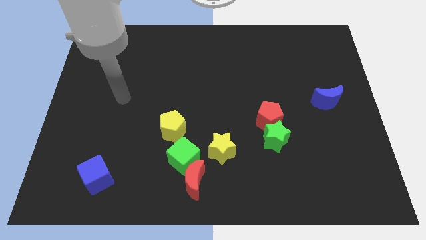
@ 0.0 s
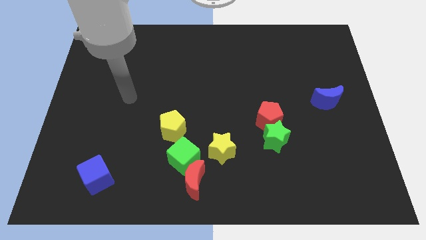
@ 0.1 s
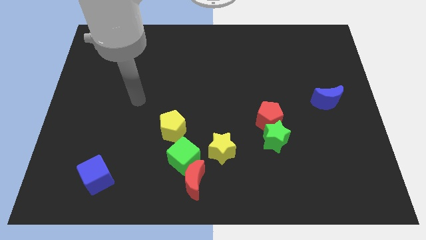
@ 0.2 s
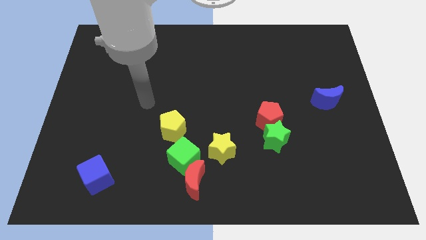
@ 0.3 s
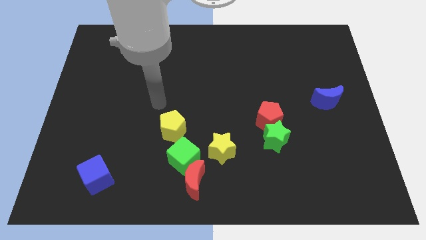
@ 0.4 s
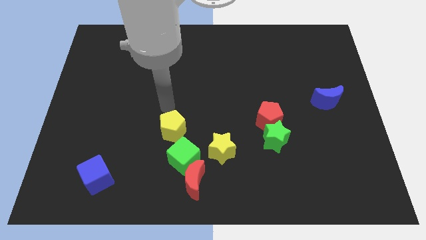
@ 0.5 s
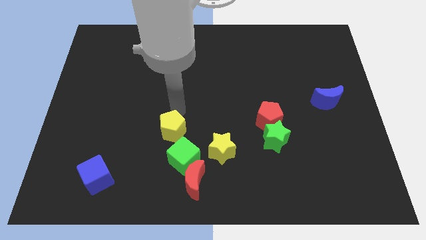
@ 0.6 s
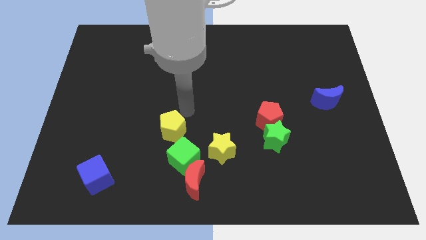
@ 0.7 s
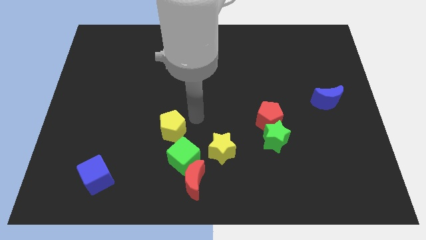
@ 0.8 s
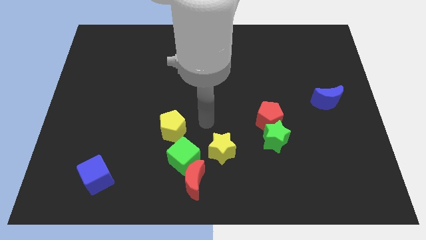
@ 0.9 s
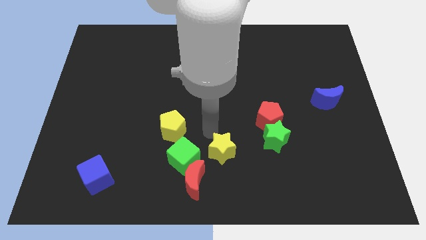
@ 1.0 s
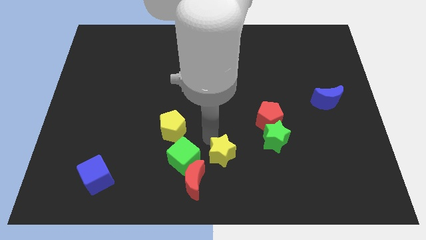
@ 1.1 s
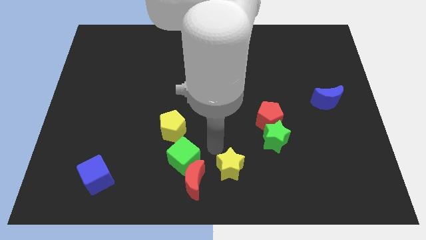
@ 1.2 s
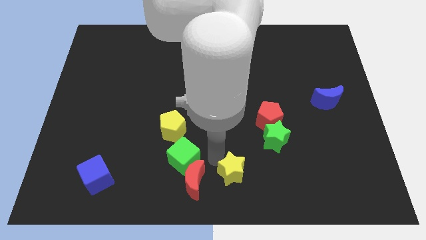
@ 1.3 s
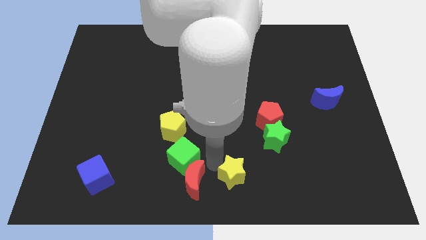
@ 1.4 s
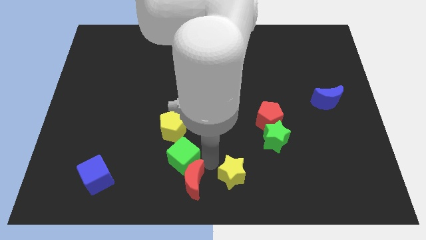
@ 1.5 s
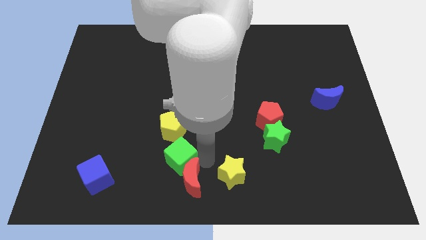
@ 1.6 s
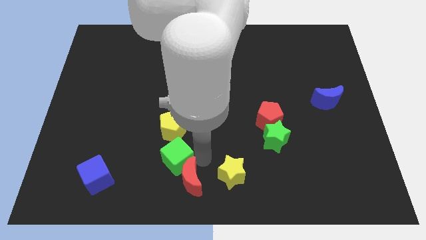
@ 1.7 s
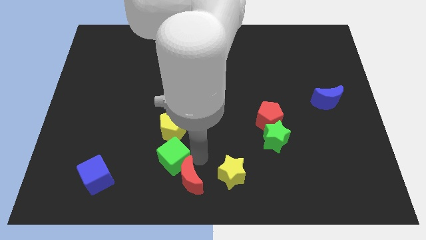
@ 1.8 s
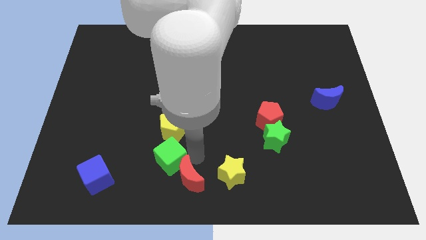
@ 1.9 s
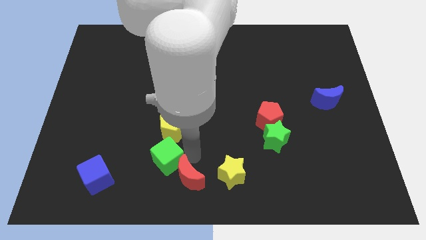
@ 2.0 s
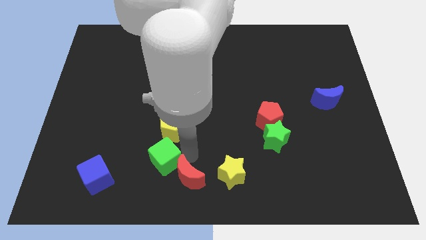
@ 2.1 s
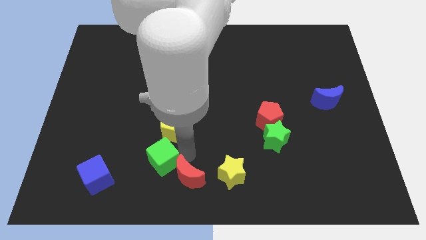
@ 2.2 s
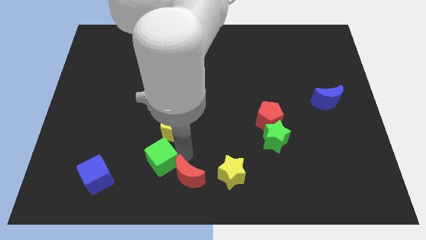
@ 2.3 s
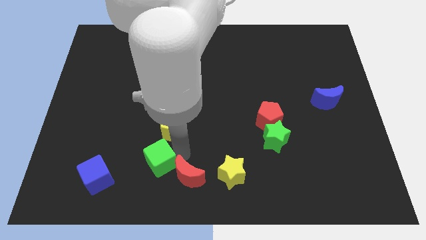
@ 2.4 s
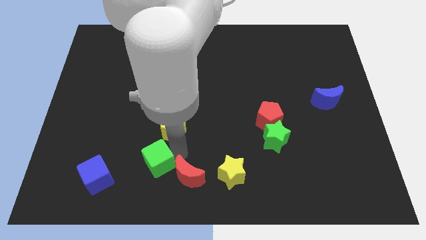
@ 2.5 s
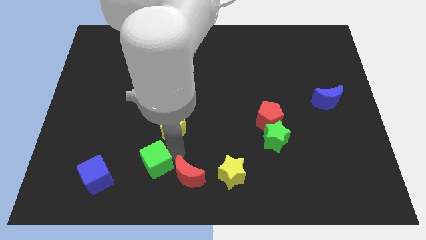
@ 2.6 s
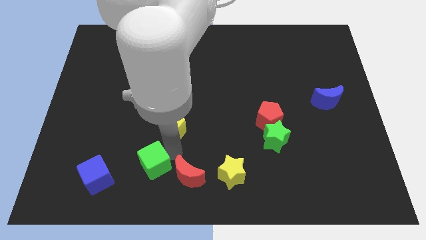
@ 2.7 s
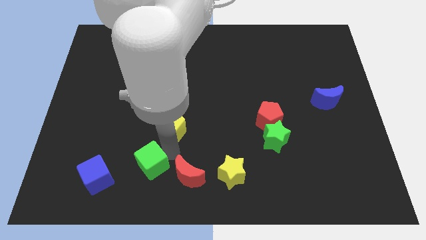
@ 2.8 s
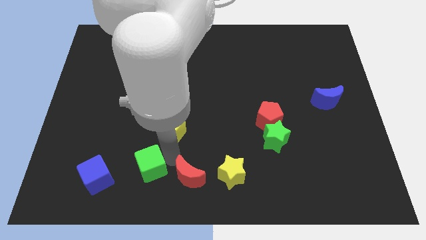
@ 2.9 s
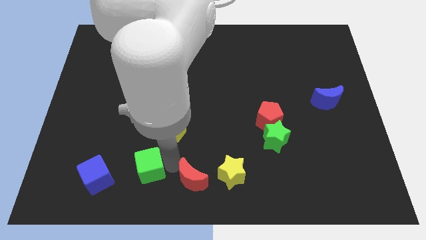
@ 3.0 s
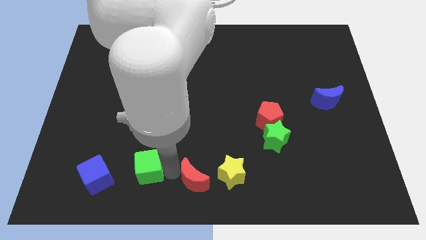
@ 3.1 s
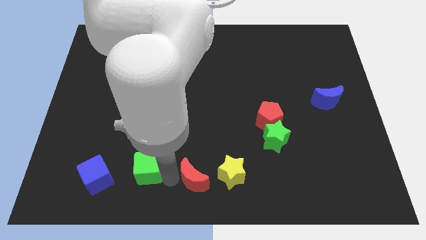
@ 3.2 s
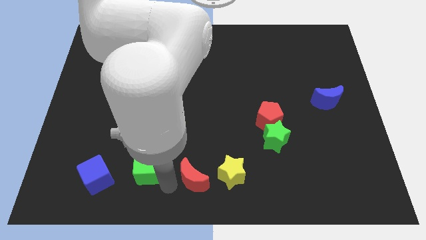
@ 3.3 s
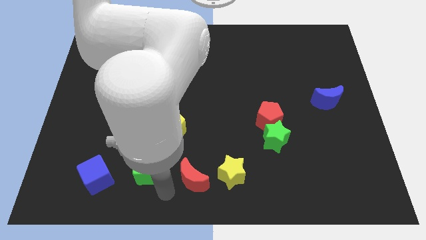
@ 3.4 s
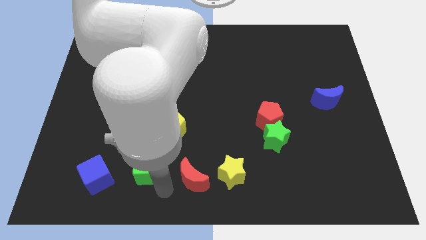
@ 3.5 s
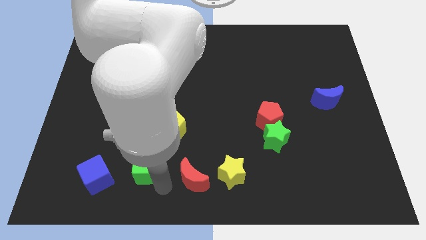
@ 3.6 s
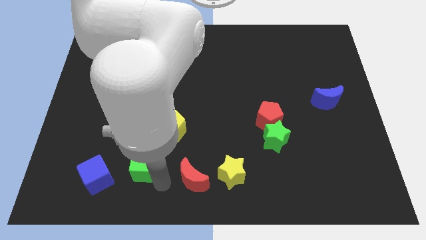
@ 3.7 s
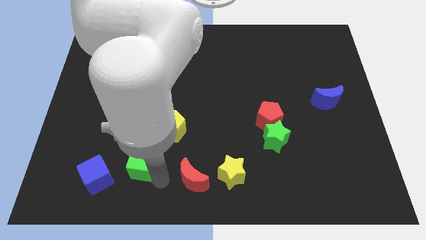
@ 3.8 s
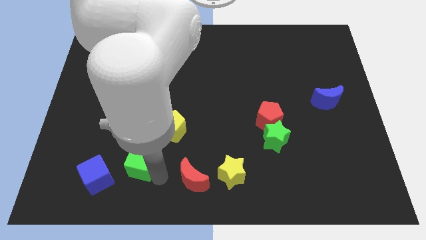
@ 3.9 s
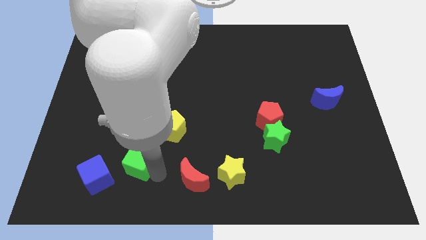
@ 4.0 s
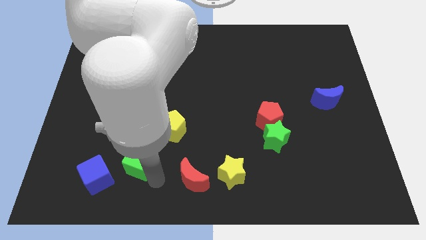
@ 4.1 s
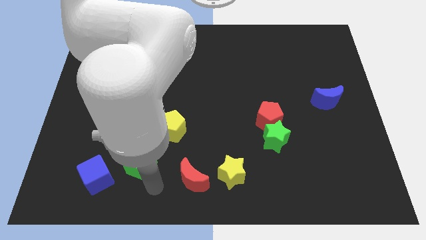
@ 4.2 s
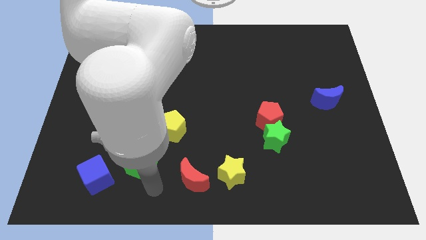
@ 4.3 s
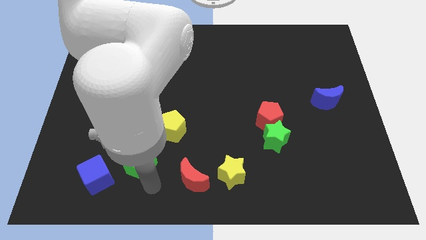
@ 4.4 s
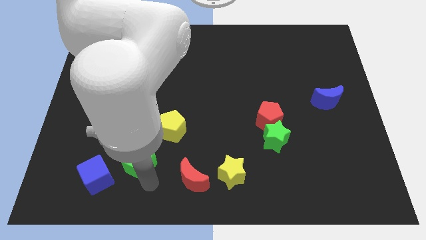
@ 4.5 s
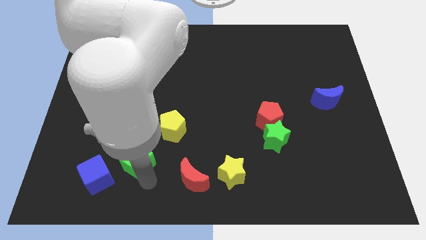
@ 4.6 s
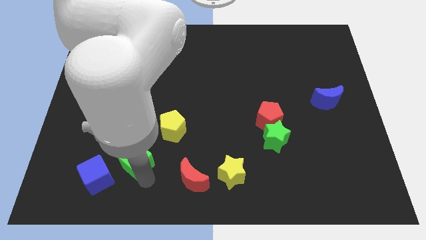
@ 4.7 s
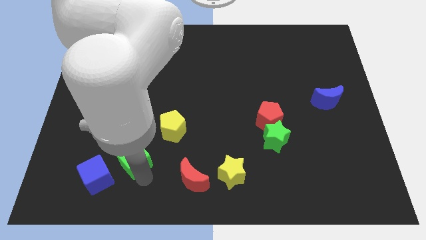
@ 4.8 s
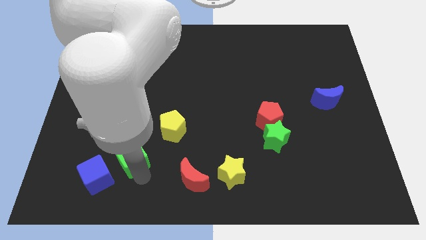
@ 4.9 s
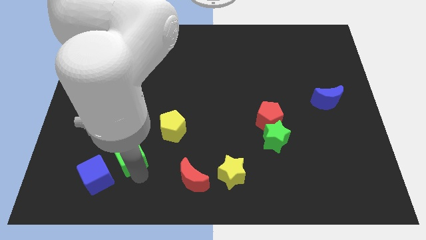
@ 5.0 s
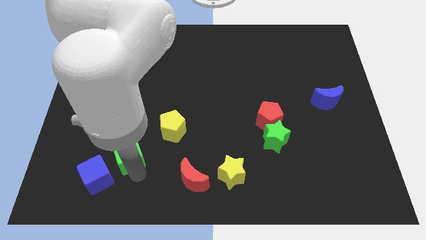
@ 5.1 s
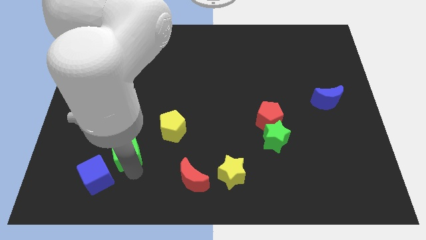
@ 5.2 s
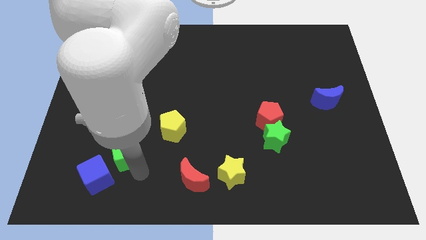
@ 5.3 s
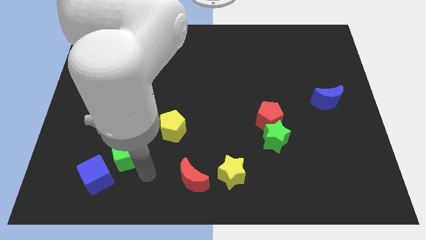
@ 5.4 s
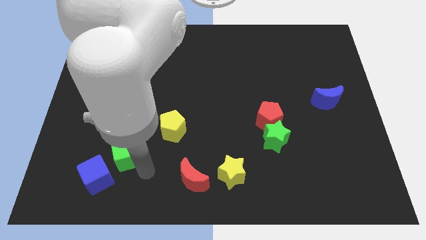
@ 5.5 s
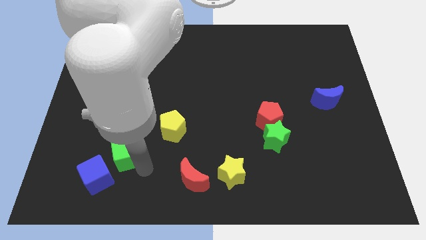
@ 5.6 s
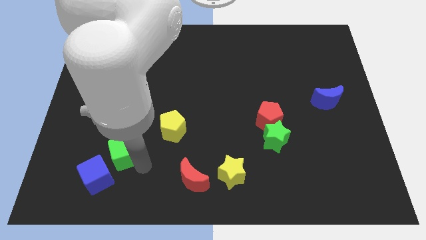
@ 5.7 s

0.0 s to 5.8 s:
push the green cube to the top side of the blue cube

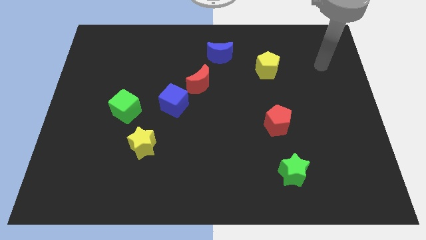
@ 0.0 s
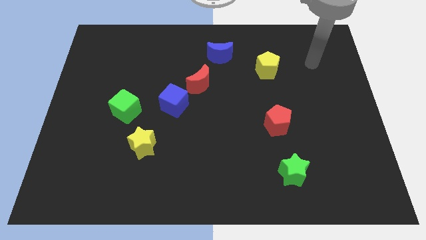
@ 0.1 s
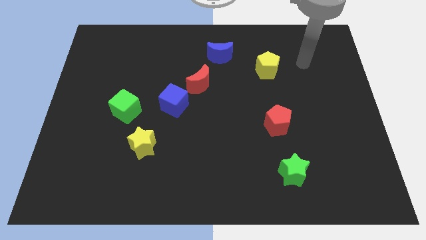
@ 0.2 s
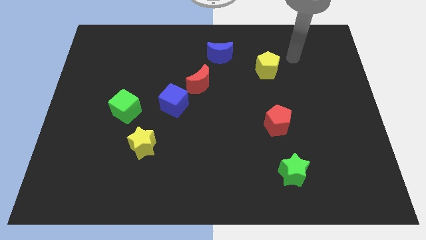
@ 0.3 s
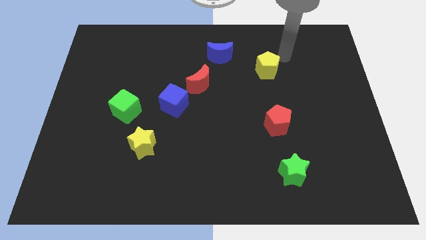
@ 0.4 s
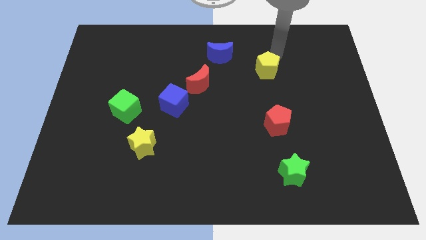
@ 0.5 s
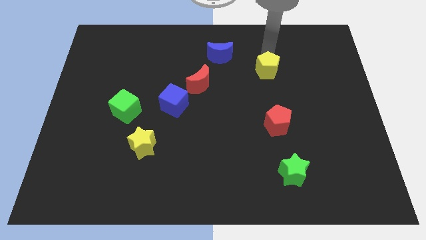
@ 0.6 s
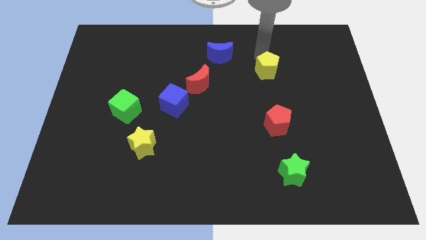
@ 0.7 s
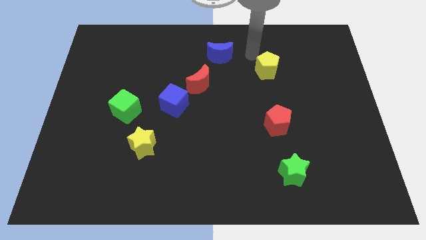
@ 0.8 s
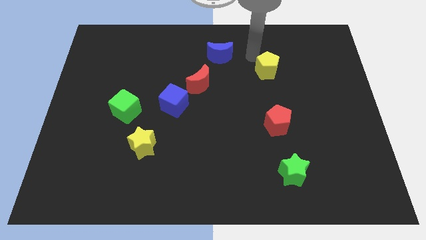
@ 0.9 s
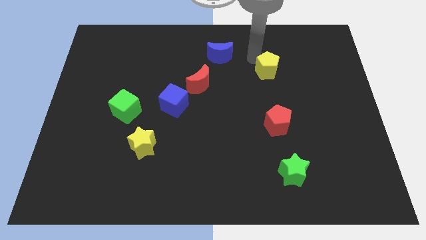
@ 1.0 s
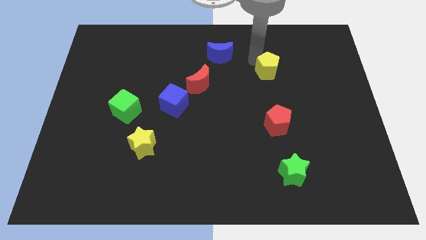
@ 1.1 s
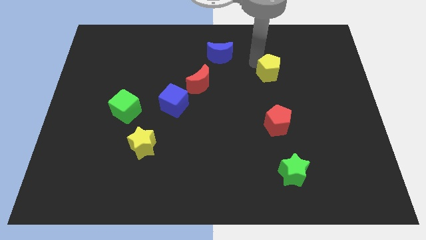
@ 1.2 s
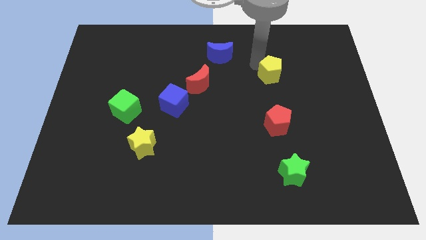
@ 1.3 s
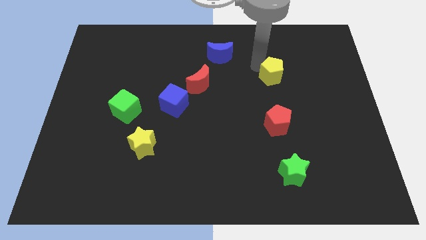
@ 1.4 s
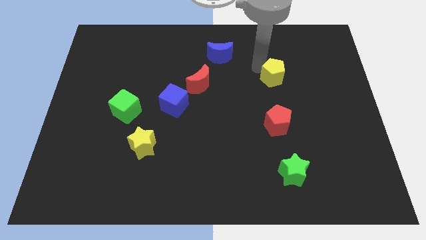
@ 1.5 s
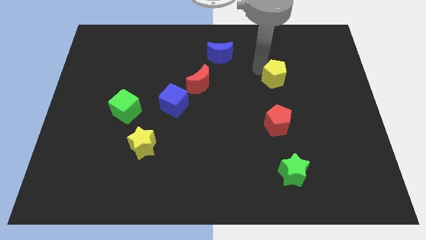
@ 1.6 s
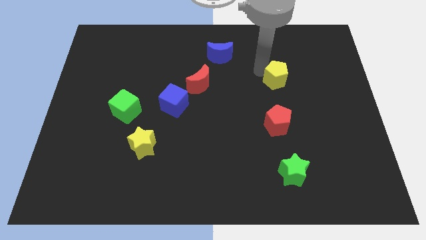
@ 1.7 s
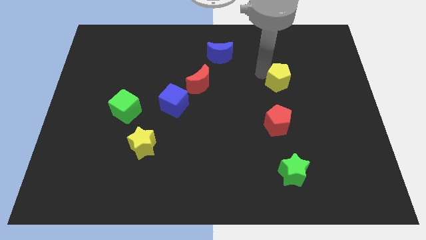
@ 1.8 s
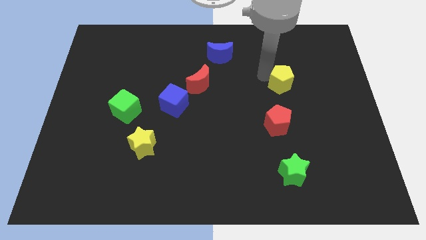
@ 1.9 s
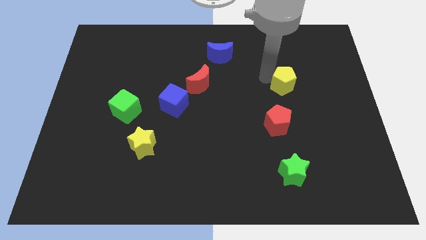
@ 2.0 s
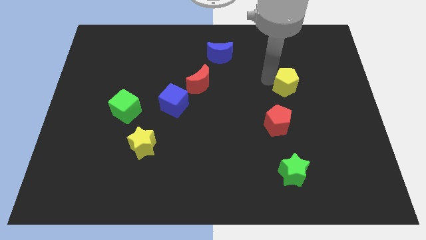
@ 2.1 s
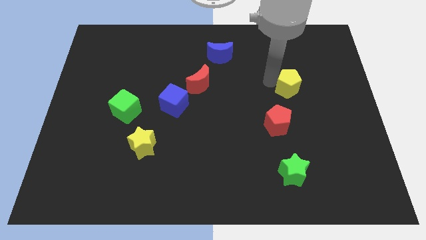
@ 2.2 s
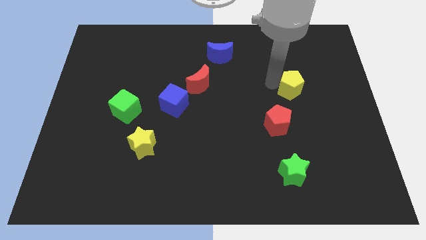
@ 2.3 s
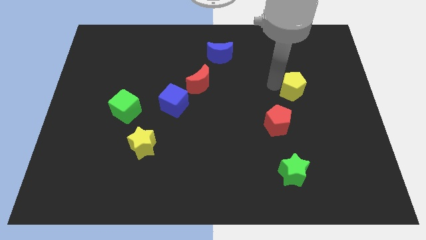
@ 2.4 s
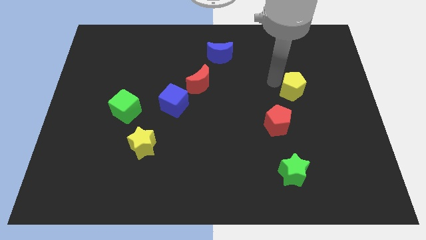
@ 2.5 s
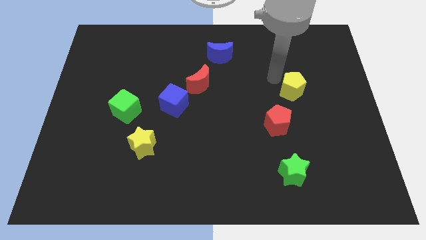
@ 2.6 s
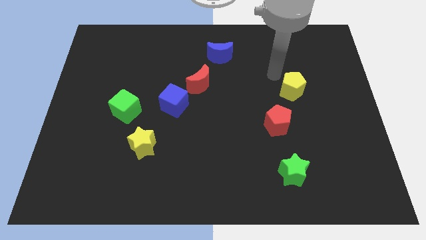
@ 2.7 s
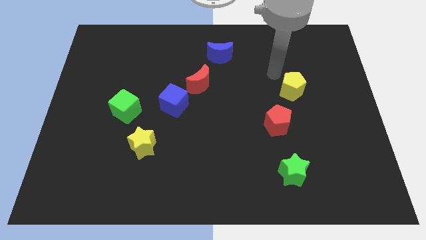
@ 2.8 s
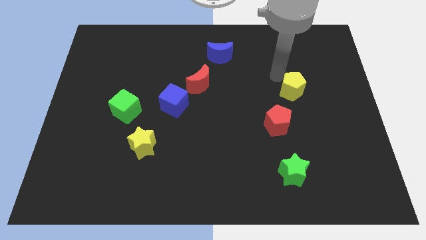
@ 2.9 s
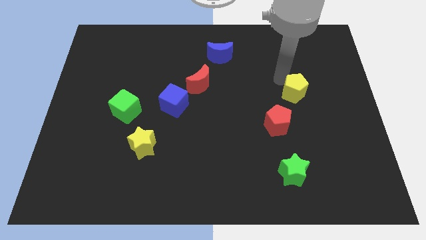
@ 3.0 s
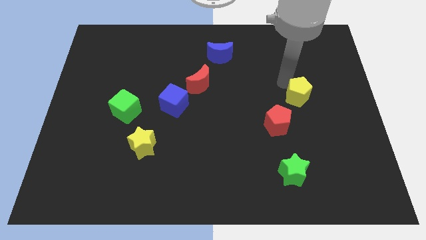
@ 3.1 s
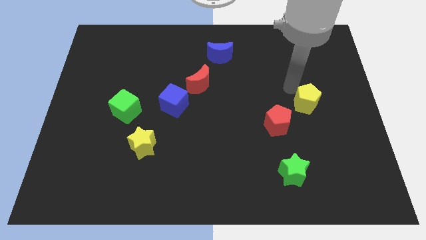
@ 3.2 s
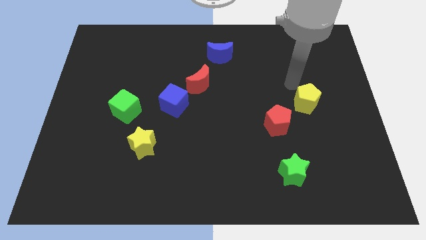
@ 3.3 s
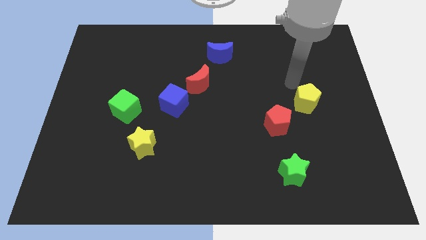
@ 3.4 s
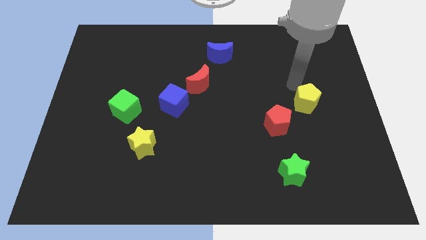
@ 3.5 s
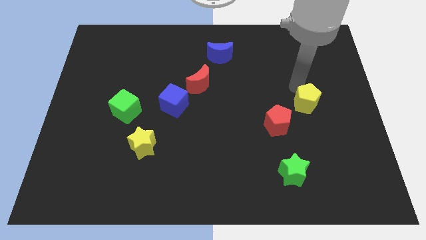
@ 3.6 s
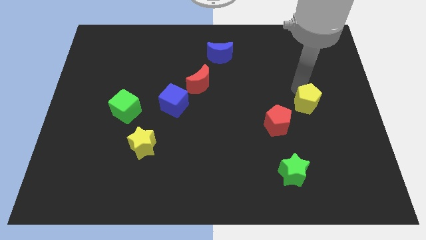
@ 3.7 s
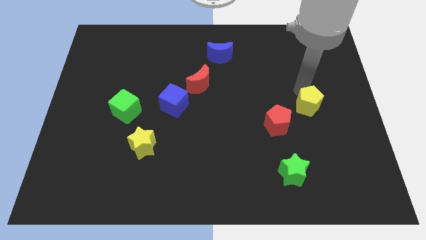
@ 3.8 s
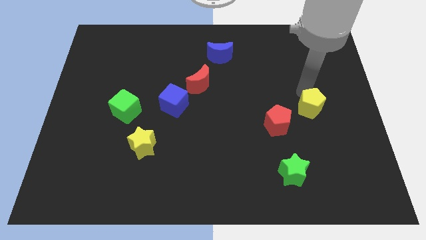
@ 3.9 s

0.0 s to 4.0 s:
push the yellow pentagon right of the red pentagon
